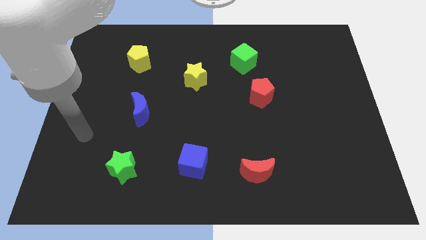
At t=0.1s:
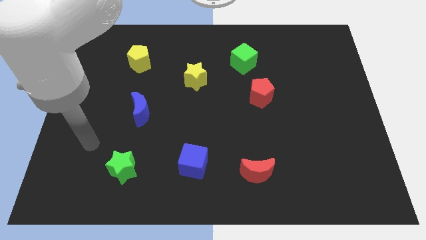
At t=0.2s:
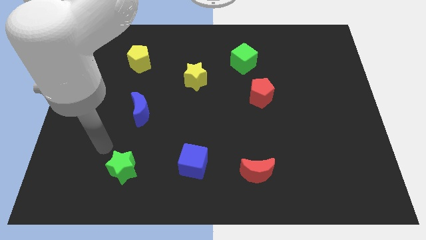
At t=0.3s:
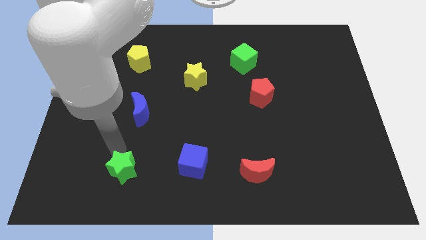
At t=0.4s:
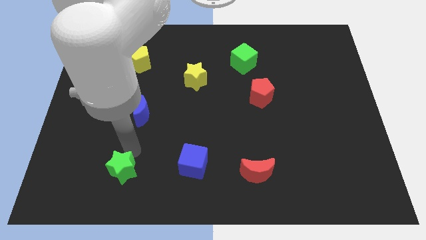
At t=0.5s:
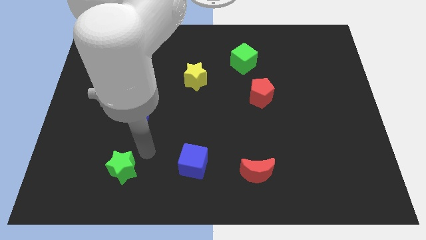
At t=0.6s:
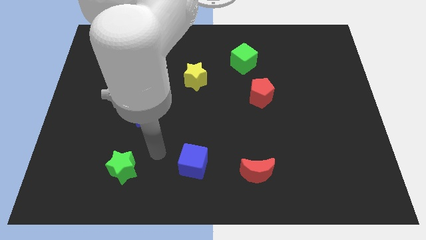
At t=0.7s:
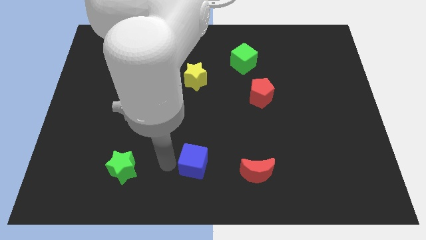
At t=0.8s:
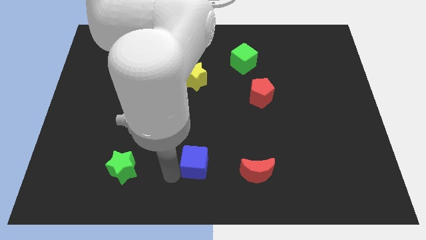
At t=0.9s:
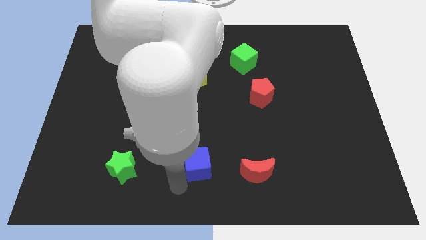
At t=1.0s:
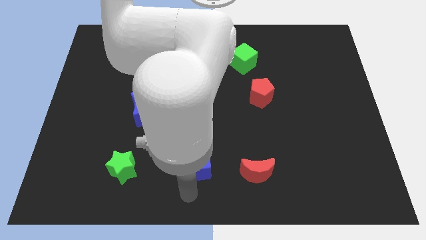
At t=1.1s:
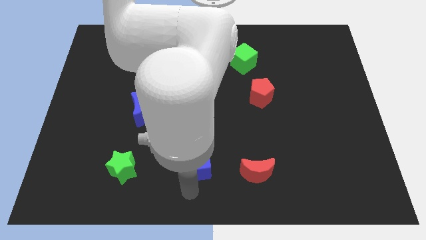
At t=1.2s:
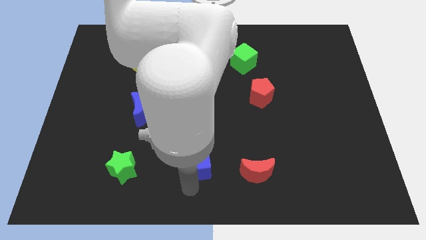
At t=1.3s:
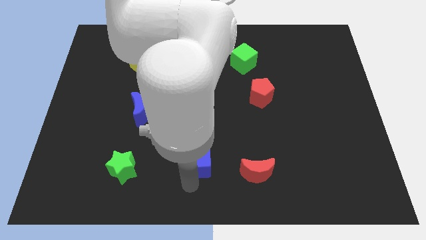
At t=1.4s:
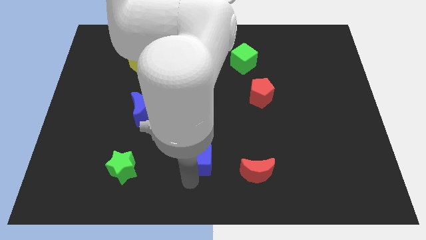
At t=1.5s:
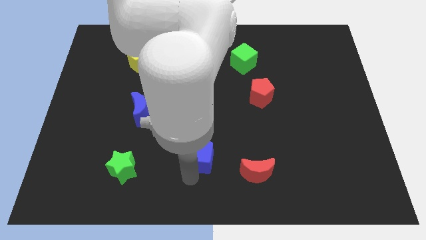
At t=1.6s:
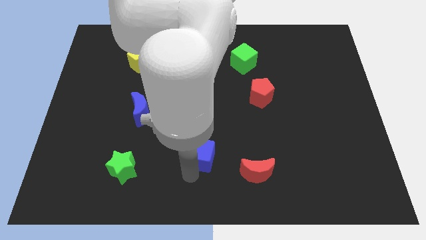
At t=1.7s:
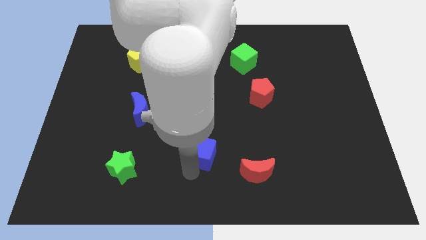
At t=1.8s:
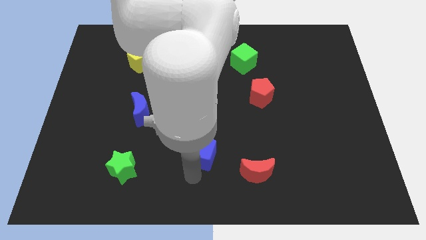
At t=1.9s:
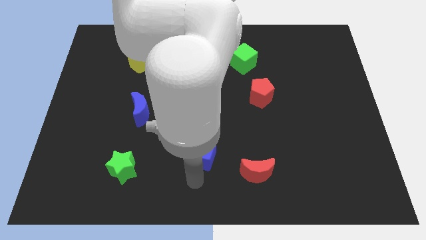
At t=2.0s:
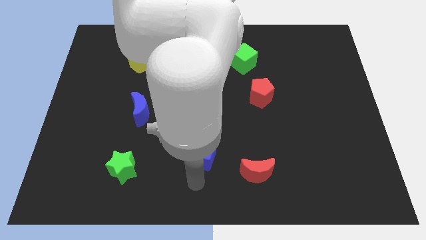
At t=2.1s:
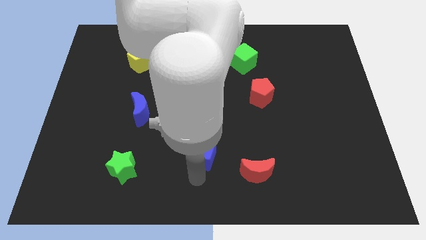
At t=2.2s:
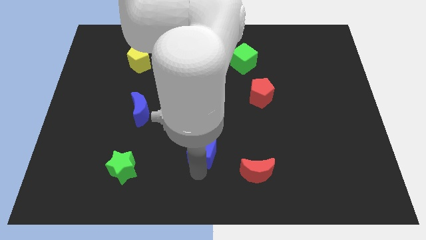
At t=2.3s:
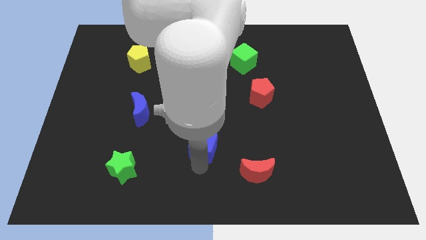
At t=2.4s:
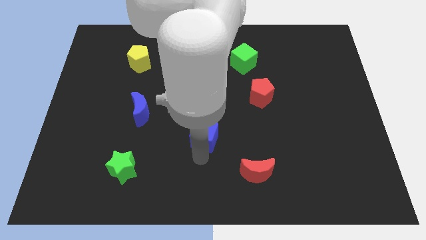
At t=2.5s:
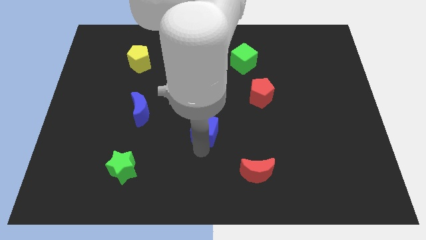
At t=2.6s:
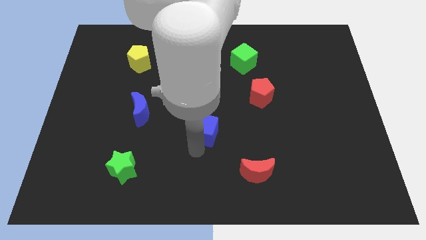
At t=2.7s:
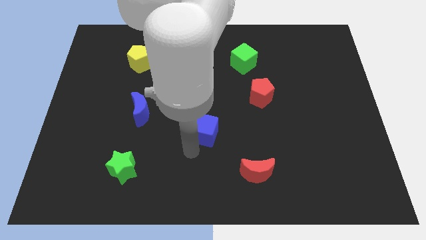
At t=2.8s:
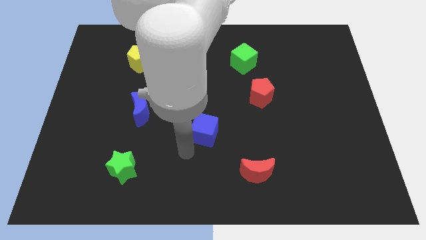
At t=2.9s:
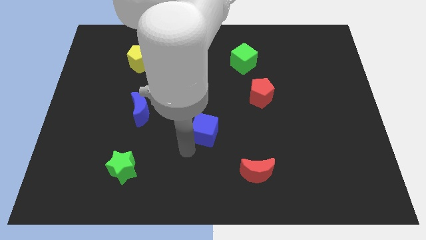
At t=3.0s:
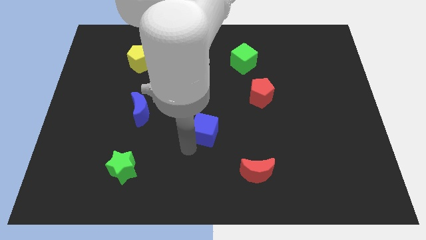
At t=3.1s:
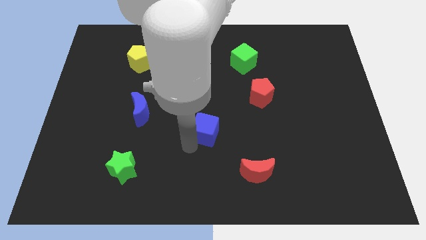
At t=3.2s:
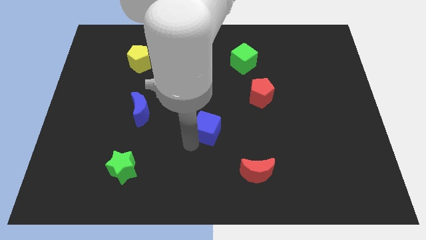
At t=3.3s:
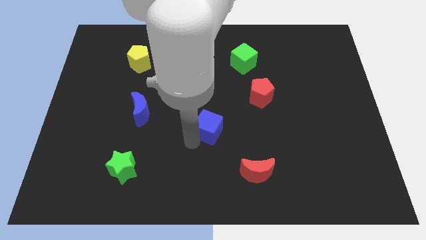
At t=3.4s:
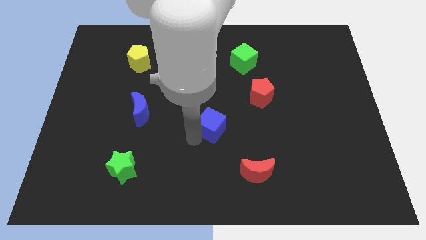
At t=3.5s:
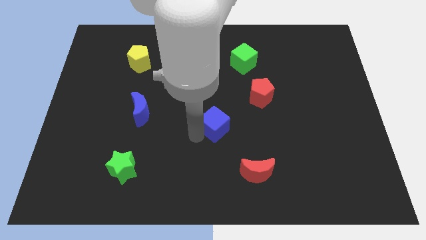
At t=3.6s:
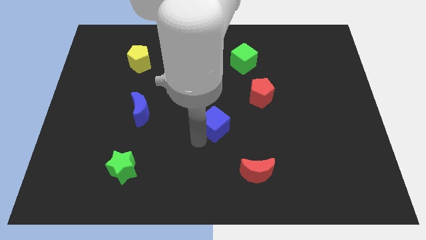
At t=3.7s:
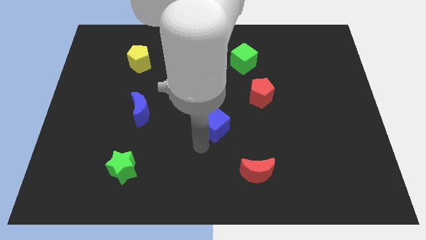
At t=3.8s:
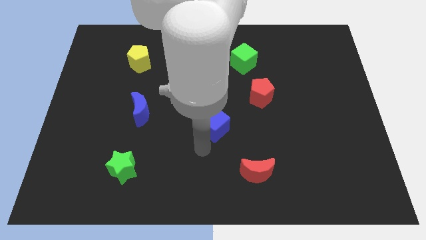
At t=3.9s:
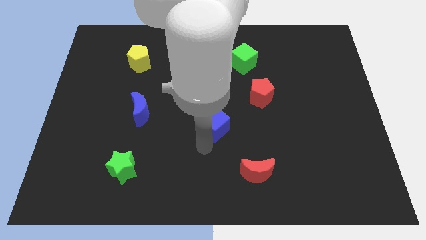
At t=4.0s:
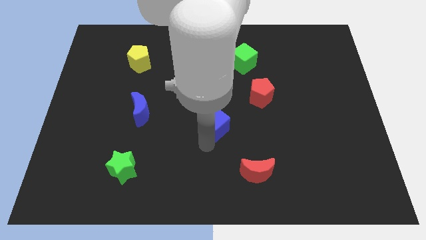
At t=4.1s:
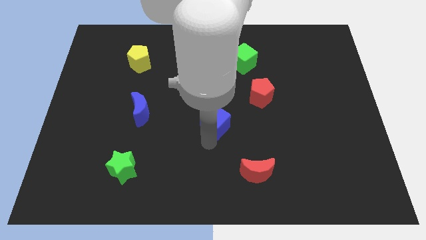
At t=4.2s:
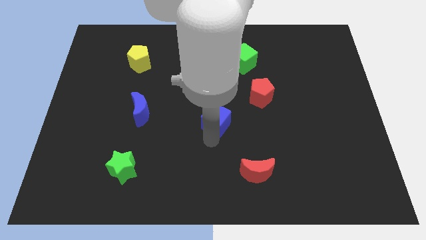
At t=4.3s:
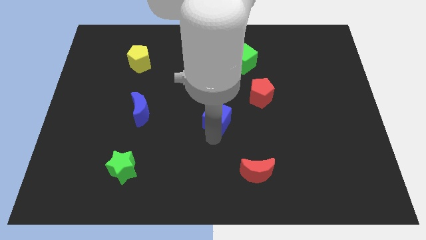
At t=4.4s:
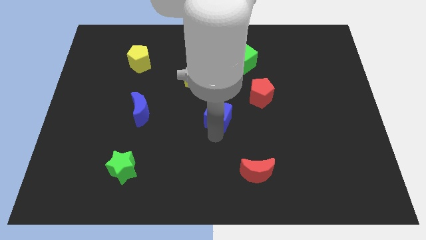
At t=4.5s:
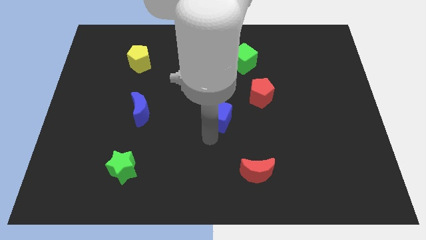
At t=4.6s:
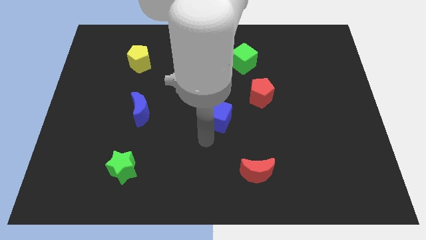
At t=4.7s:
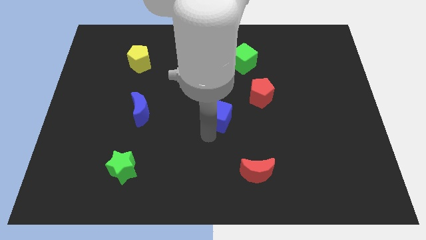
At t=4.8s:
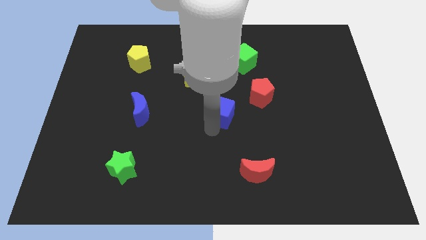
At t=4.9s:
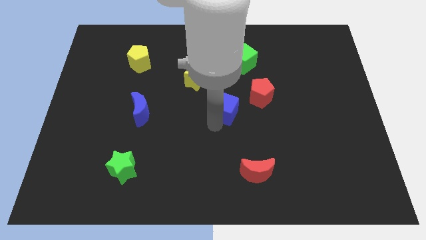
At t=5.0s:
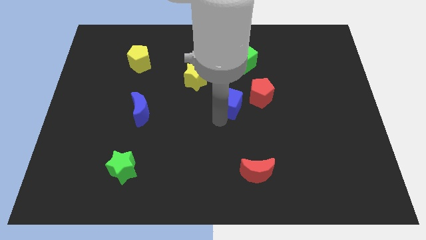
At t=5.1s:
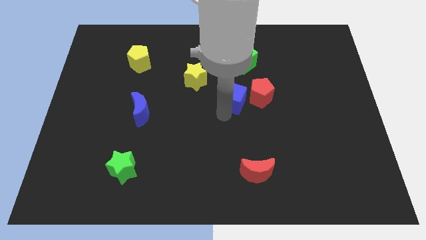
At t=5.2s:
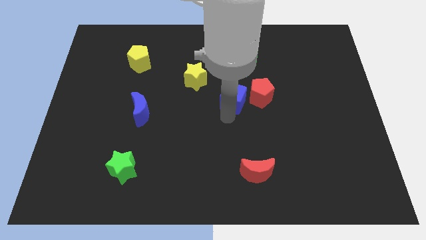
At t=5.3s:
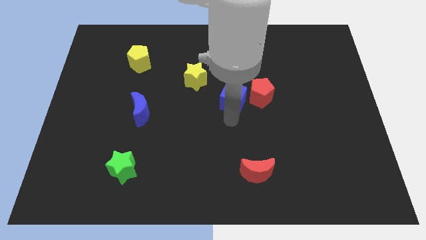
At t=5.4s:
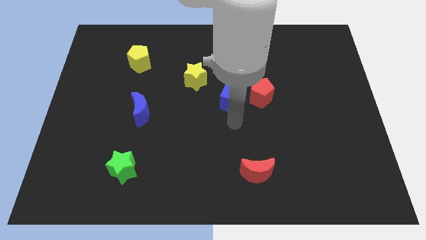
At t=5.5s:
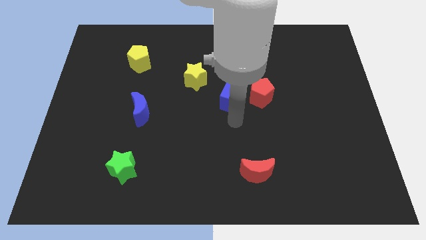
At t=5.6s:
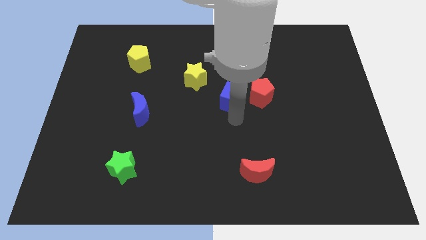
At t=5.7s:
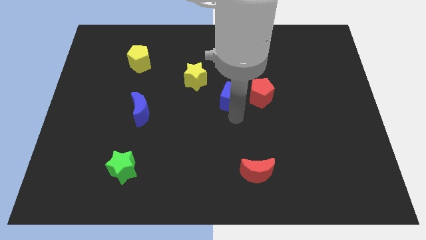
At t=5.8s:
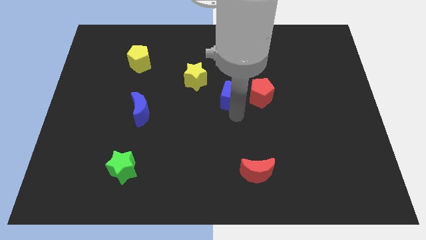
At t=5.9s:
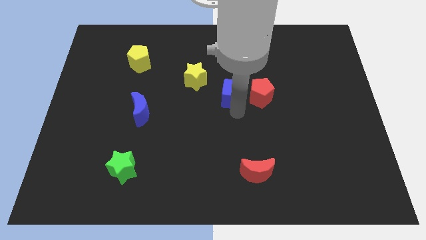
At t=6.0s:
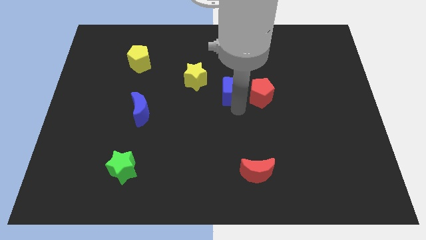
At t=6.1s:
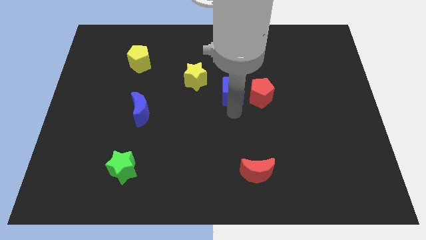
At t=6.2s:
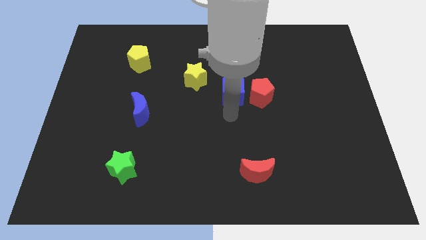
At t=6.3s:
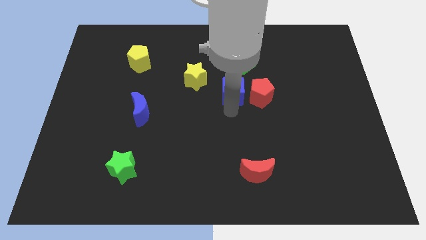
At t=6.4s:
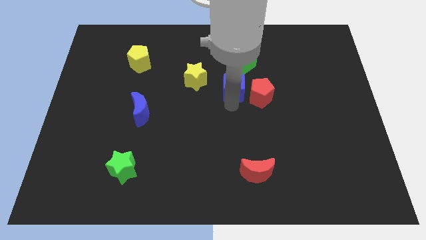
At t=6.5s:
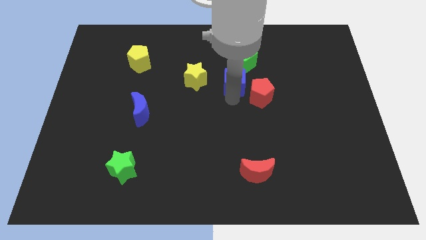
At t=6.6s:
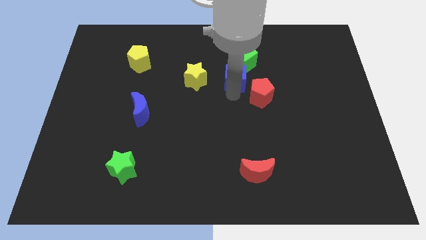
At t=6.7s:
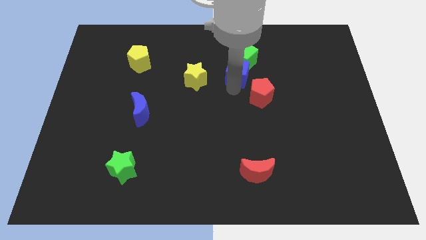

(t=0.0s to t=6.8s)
slide the blue cube to the green cube
